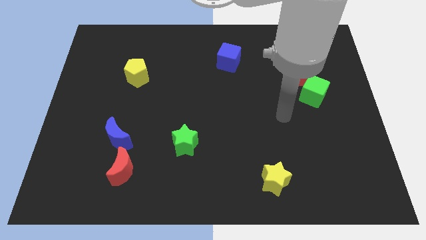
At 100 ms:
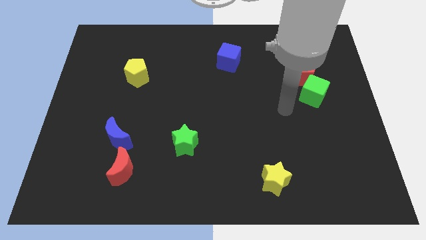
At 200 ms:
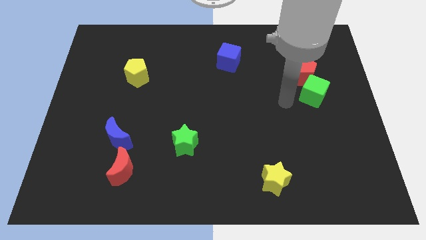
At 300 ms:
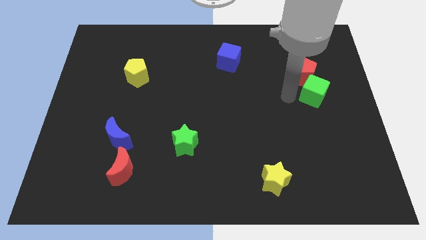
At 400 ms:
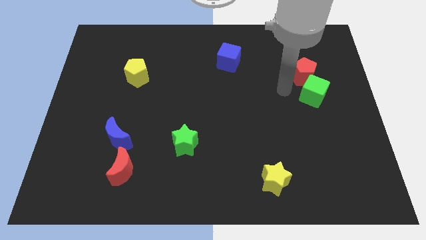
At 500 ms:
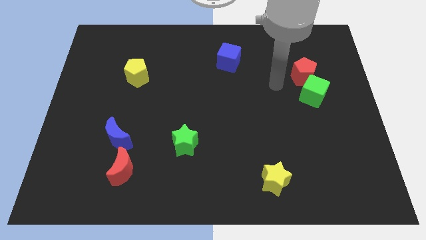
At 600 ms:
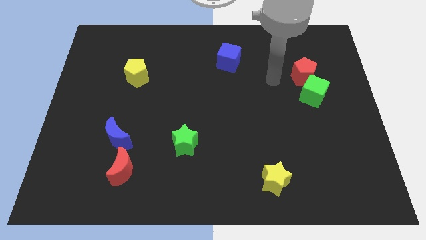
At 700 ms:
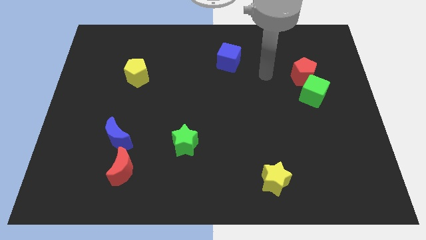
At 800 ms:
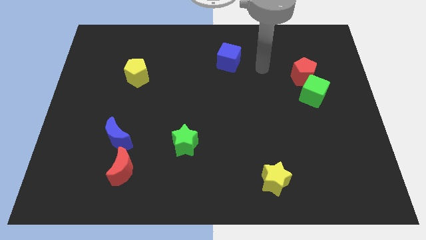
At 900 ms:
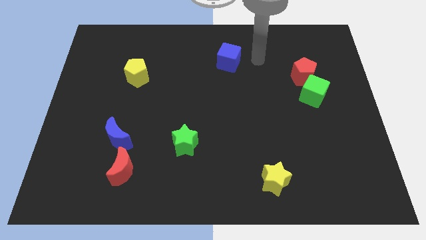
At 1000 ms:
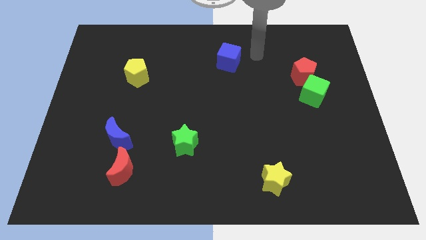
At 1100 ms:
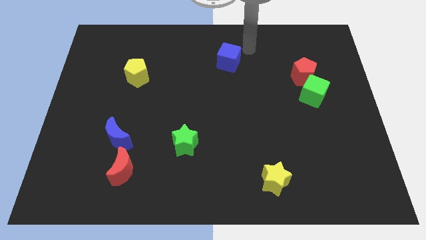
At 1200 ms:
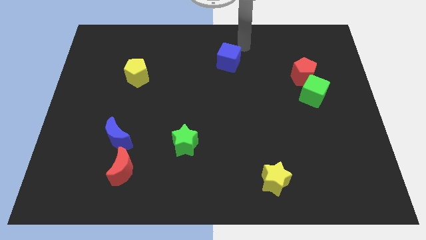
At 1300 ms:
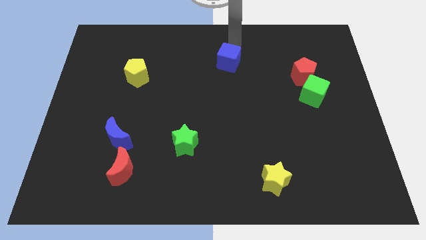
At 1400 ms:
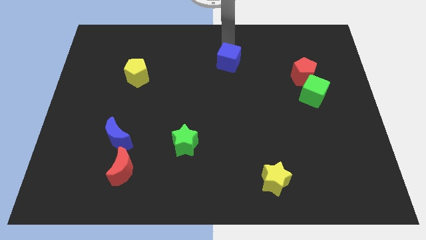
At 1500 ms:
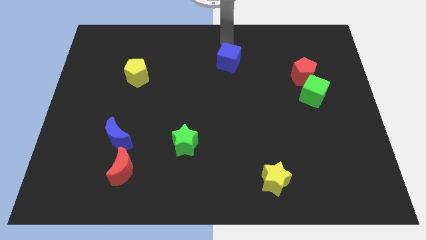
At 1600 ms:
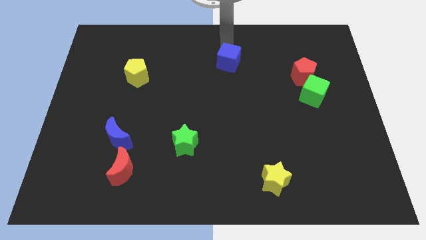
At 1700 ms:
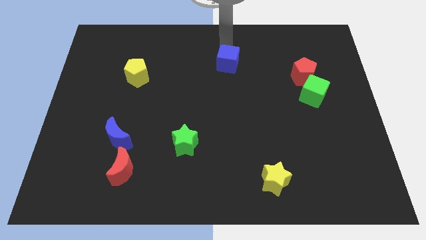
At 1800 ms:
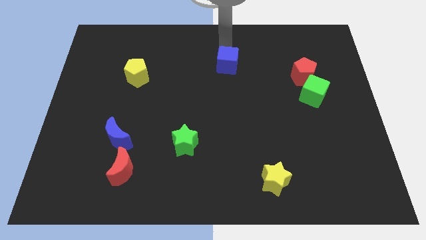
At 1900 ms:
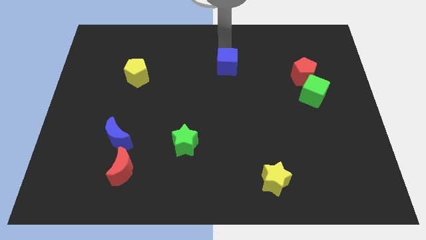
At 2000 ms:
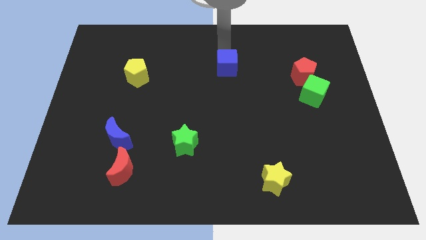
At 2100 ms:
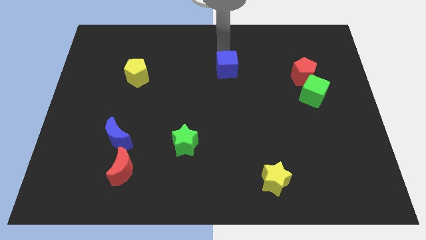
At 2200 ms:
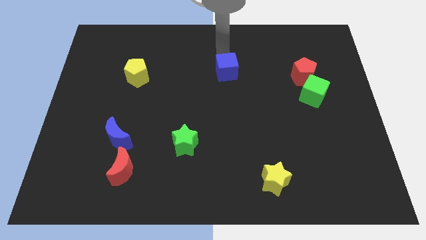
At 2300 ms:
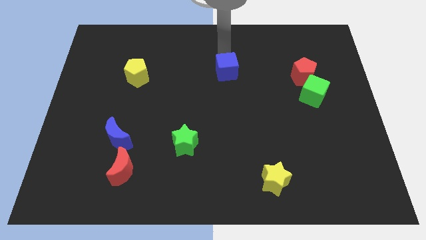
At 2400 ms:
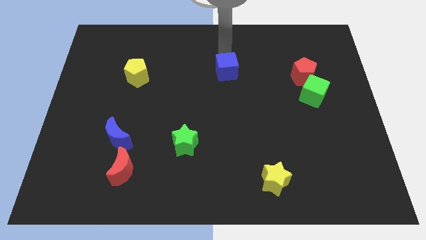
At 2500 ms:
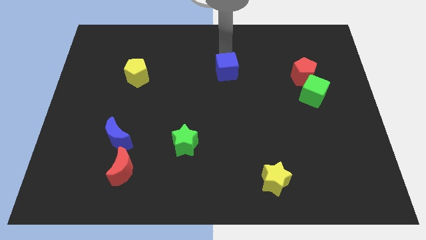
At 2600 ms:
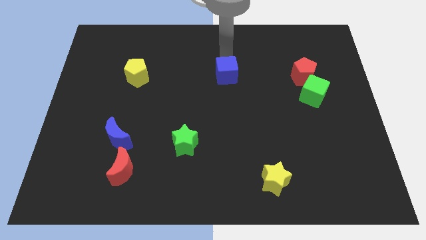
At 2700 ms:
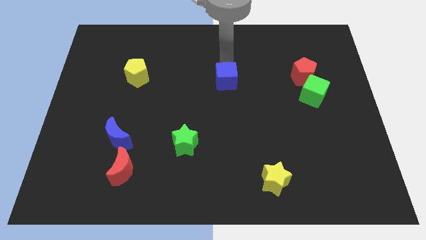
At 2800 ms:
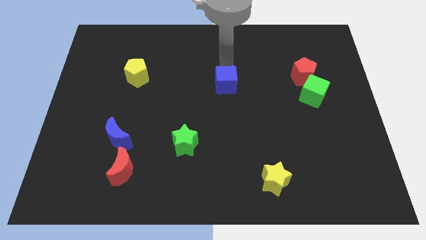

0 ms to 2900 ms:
move the blue cube a little bit down

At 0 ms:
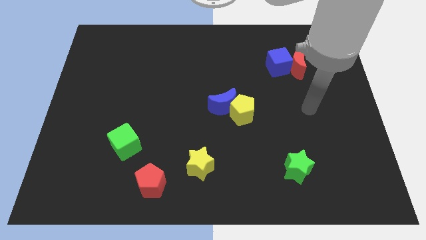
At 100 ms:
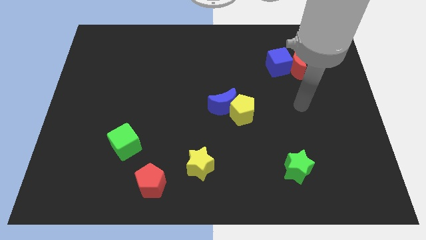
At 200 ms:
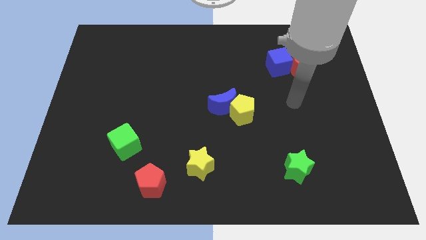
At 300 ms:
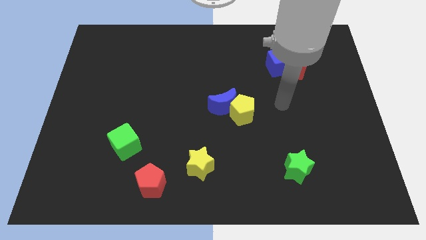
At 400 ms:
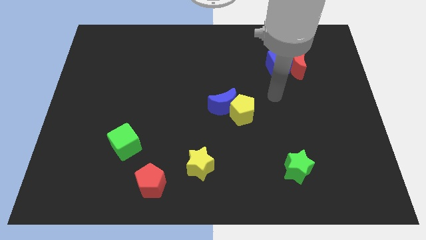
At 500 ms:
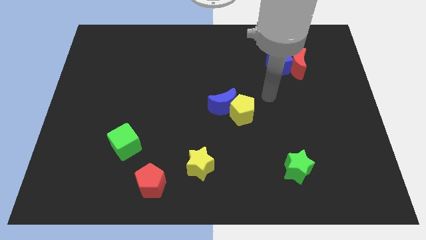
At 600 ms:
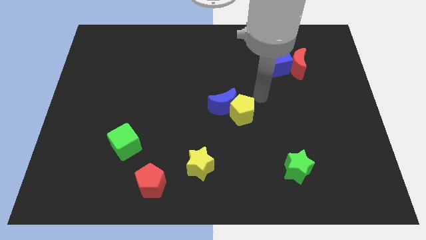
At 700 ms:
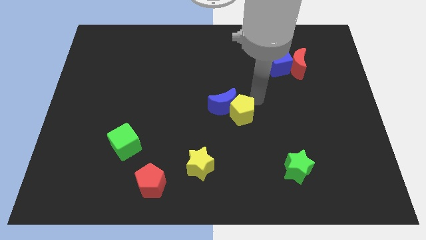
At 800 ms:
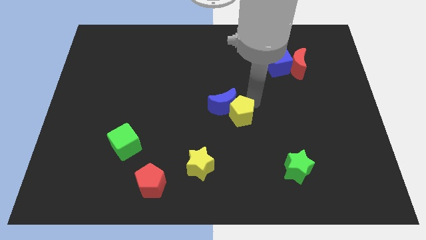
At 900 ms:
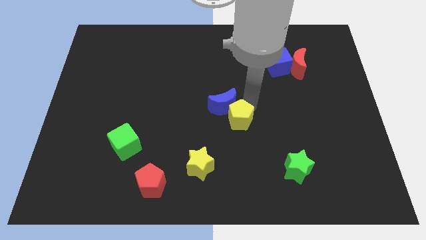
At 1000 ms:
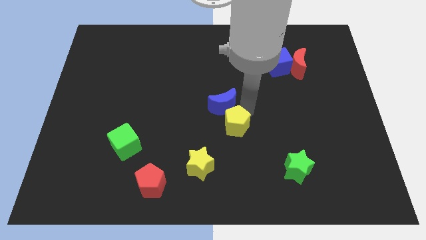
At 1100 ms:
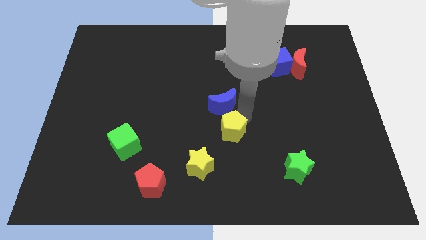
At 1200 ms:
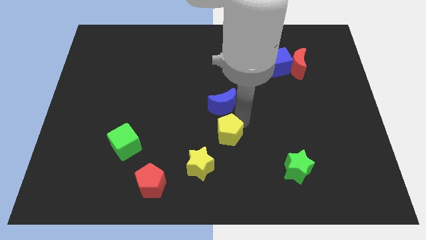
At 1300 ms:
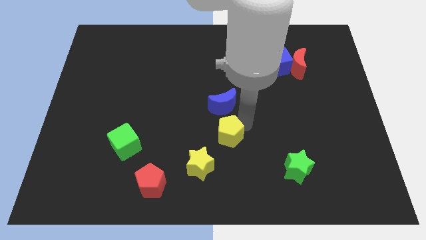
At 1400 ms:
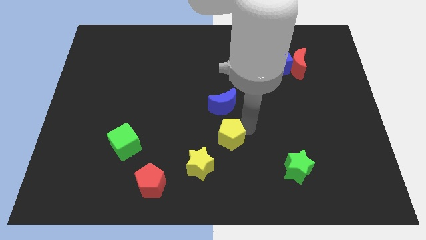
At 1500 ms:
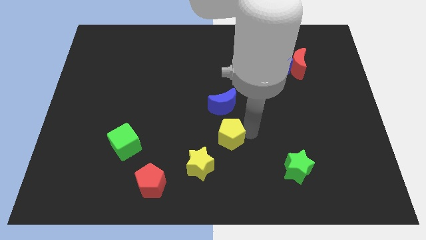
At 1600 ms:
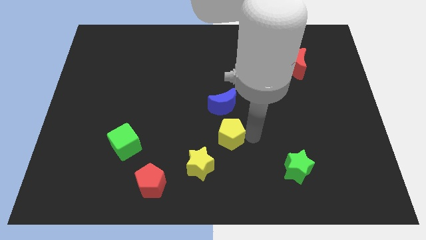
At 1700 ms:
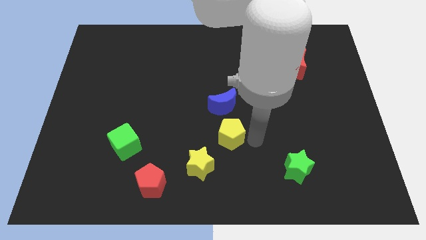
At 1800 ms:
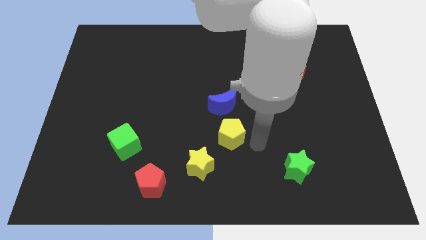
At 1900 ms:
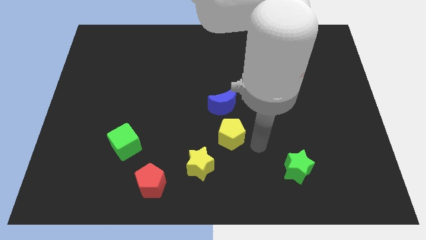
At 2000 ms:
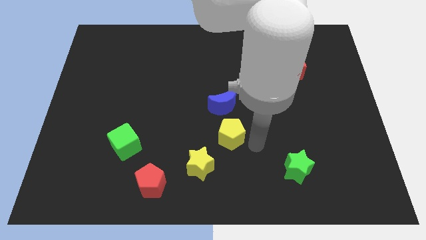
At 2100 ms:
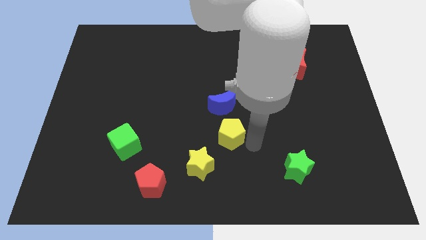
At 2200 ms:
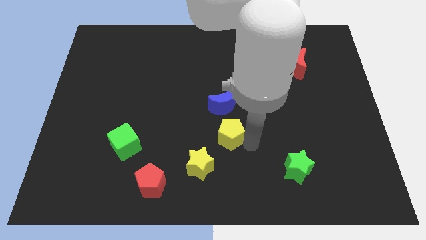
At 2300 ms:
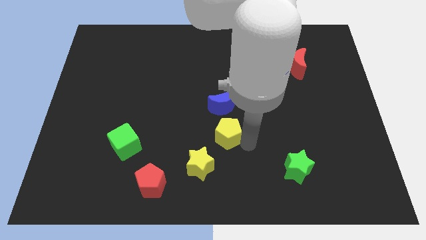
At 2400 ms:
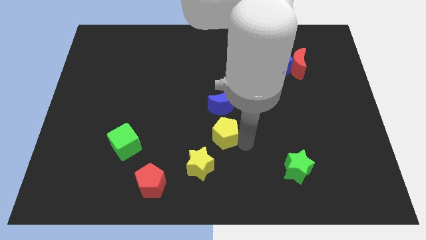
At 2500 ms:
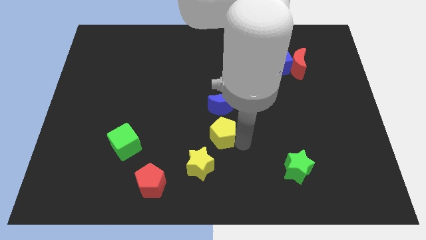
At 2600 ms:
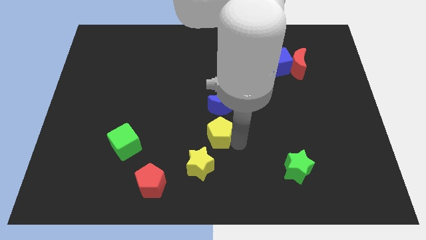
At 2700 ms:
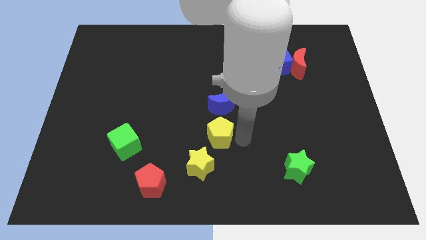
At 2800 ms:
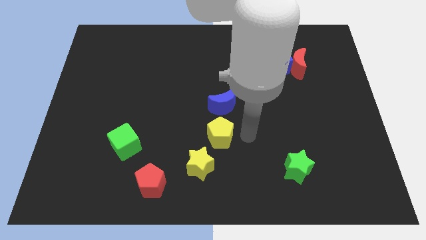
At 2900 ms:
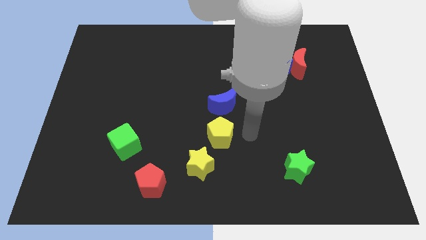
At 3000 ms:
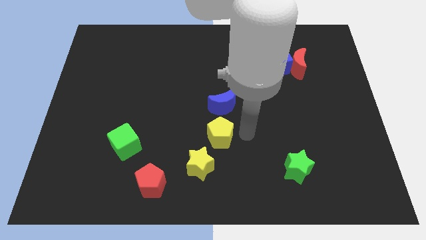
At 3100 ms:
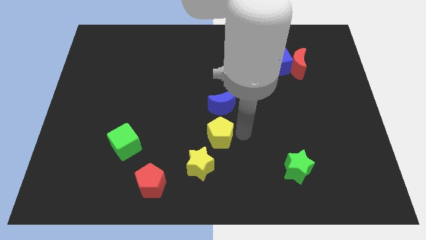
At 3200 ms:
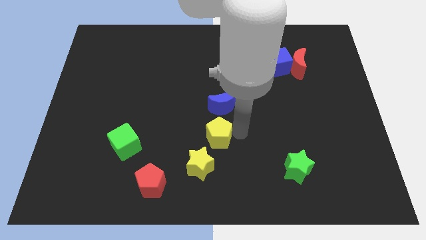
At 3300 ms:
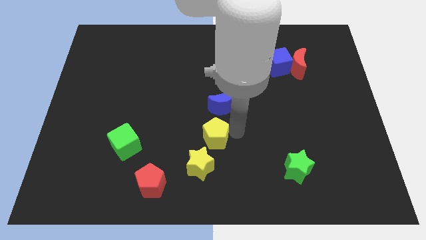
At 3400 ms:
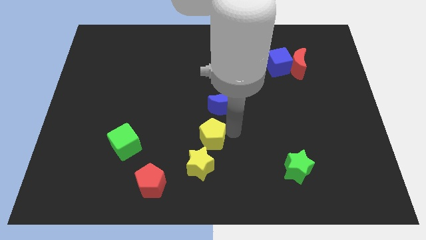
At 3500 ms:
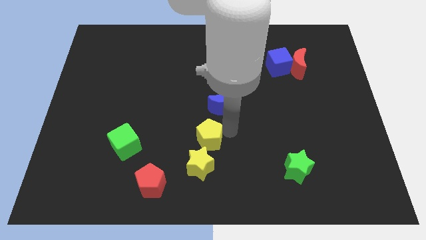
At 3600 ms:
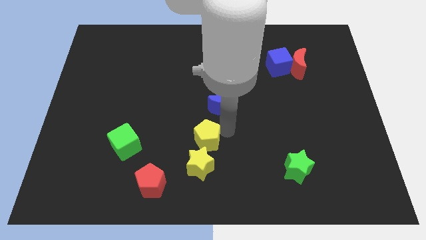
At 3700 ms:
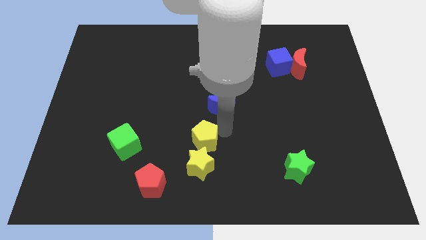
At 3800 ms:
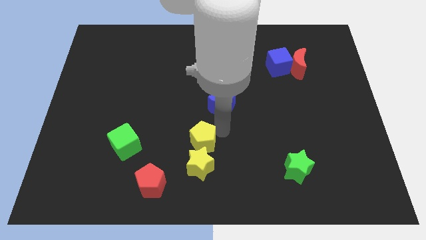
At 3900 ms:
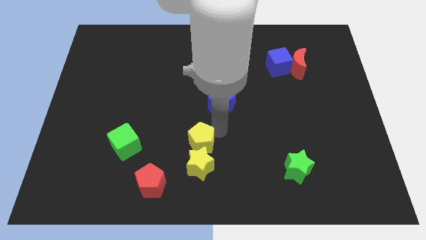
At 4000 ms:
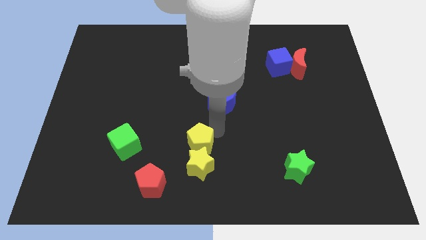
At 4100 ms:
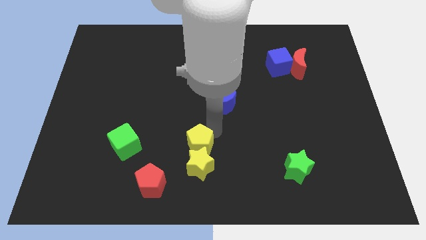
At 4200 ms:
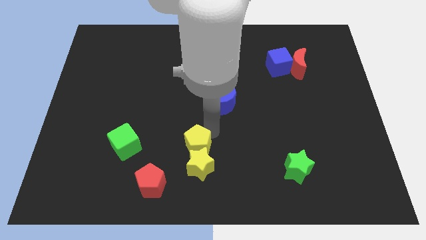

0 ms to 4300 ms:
slide the yellow pentagon to the left a bit

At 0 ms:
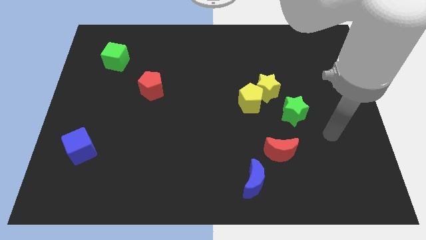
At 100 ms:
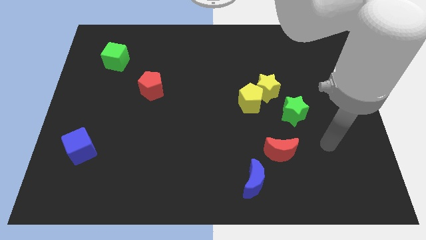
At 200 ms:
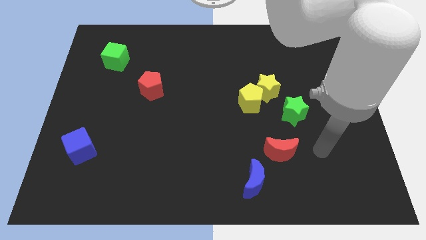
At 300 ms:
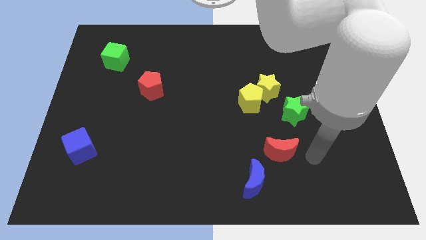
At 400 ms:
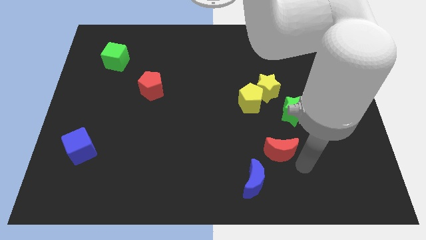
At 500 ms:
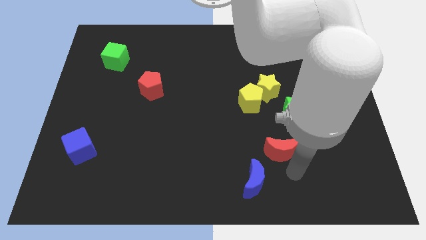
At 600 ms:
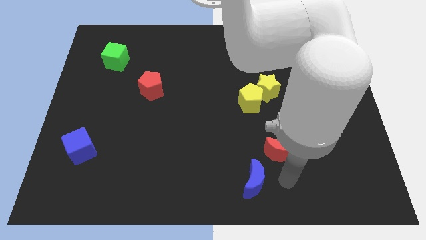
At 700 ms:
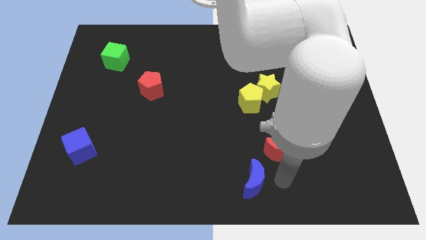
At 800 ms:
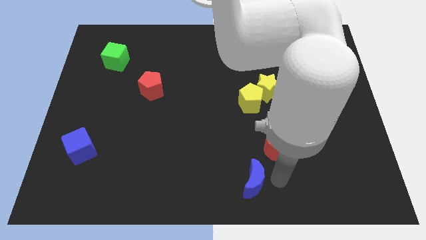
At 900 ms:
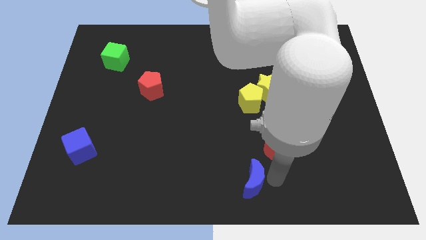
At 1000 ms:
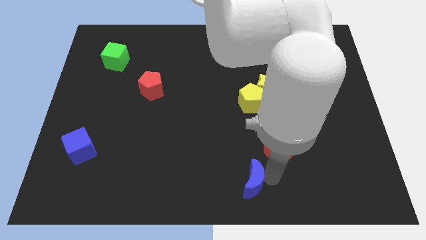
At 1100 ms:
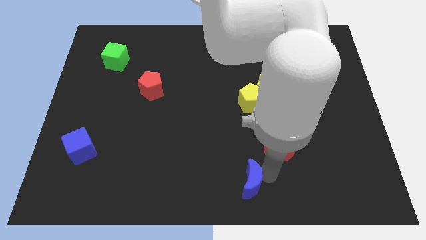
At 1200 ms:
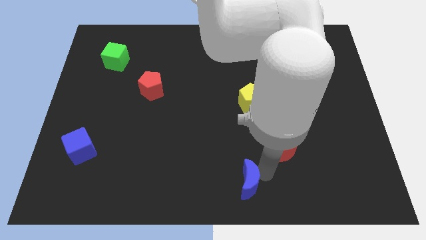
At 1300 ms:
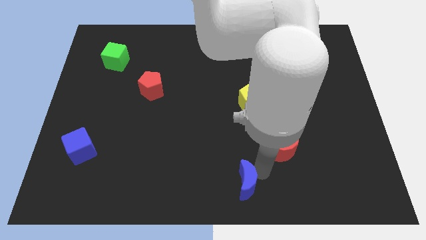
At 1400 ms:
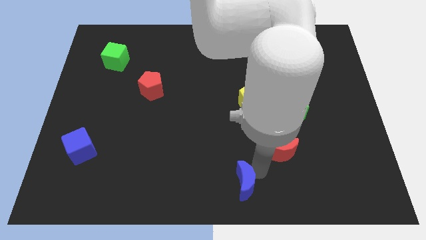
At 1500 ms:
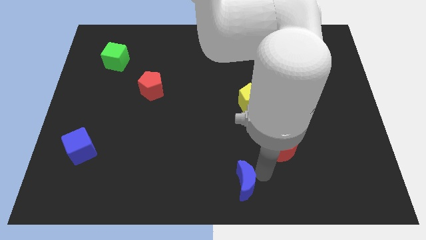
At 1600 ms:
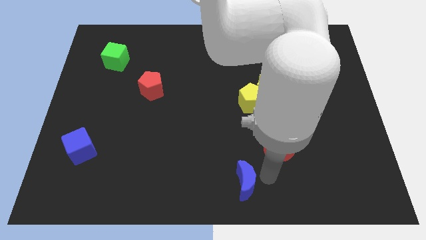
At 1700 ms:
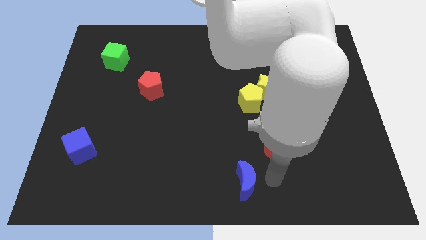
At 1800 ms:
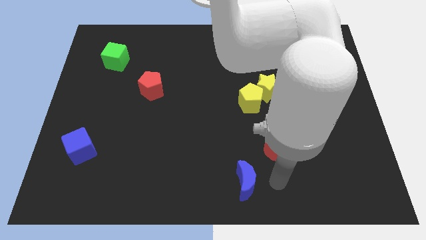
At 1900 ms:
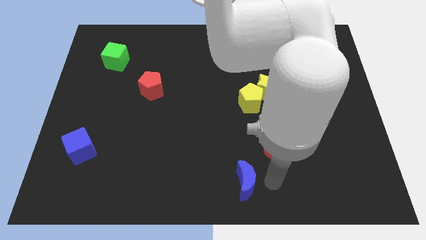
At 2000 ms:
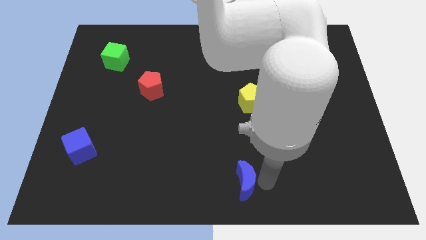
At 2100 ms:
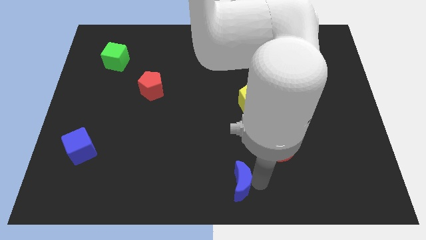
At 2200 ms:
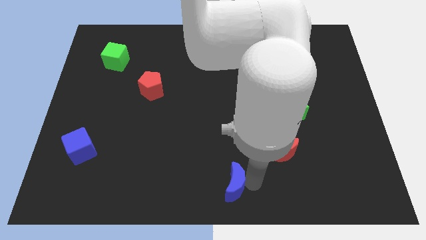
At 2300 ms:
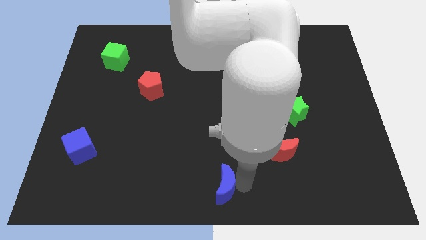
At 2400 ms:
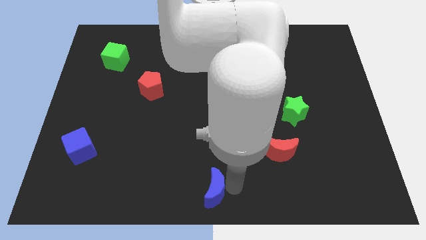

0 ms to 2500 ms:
slide the blue moon to the left a bit
